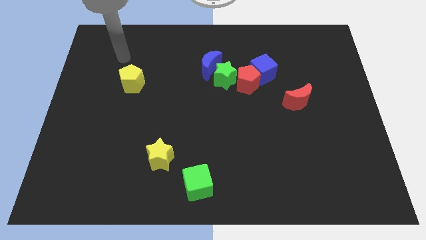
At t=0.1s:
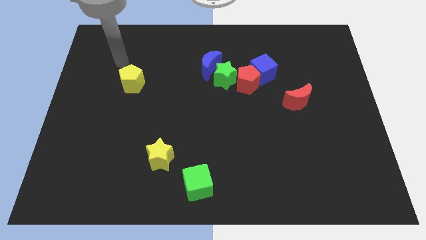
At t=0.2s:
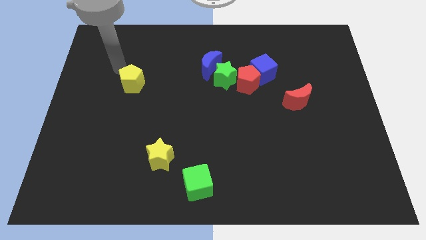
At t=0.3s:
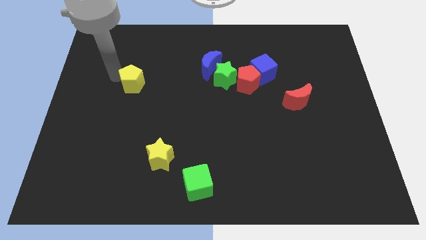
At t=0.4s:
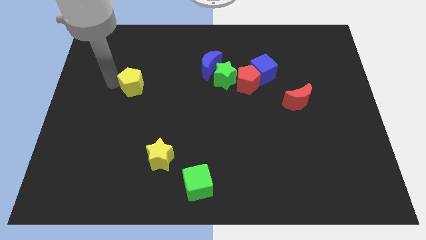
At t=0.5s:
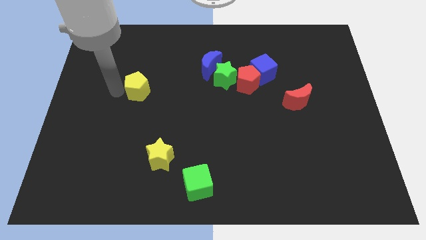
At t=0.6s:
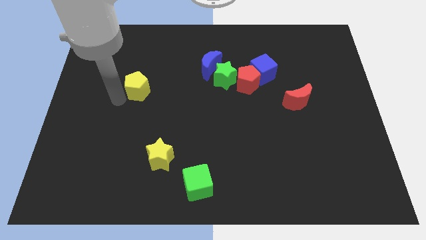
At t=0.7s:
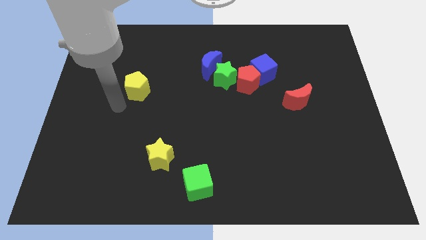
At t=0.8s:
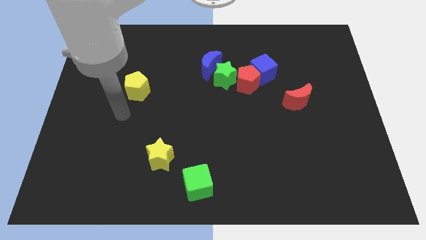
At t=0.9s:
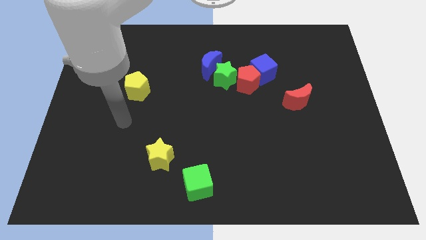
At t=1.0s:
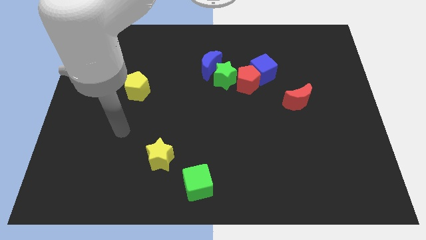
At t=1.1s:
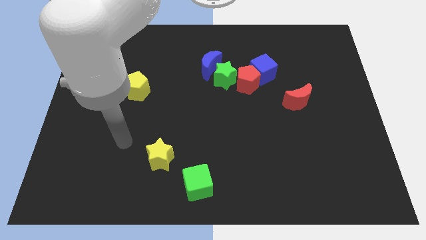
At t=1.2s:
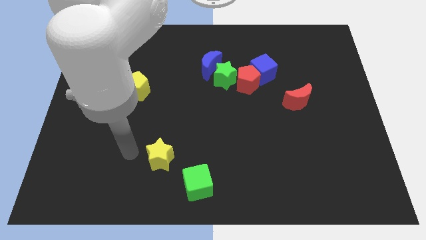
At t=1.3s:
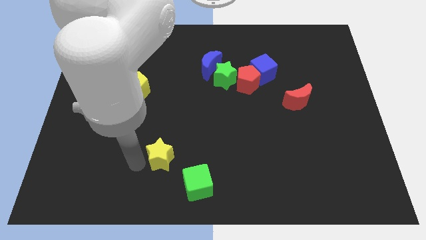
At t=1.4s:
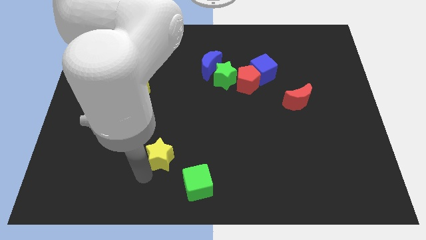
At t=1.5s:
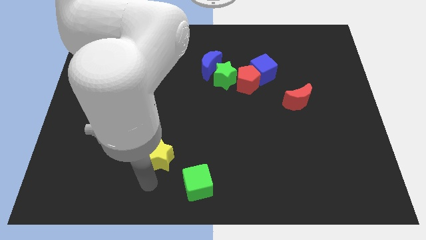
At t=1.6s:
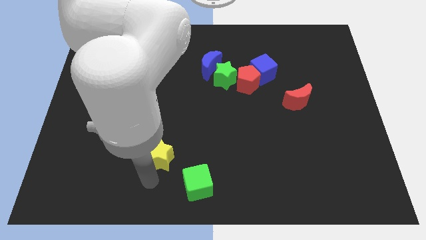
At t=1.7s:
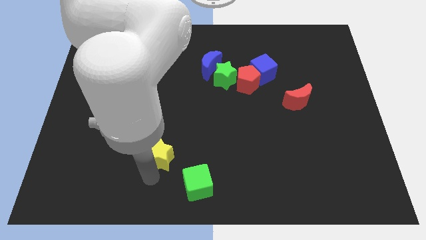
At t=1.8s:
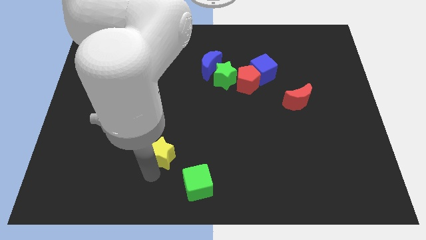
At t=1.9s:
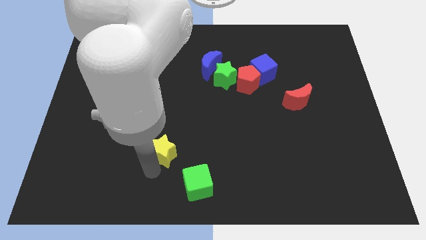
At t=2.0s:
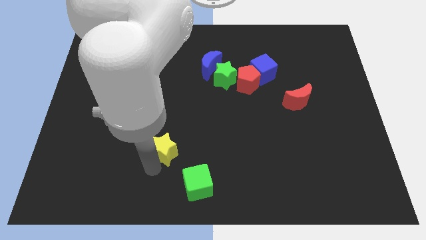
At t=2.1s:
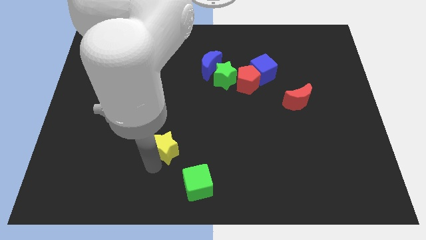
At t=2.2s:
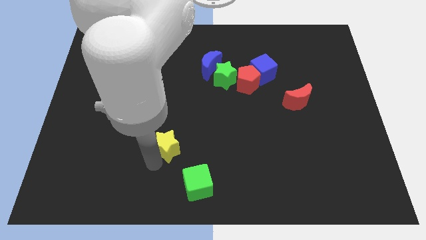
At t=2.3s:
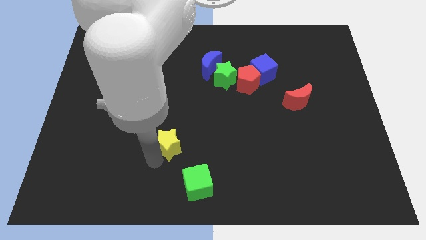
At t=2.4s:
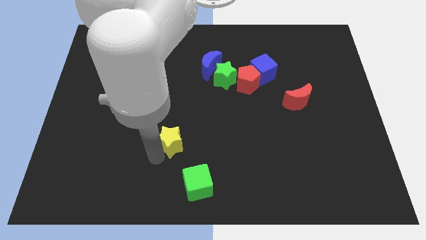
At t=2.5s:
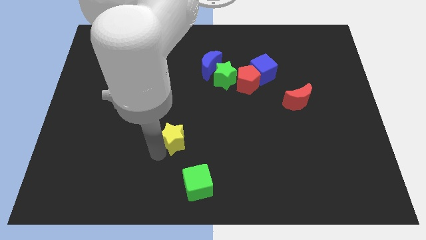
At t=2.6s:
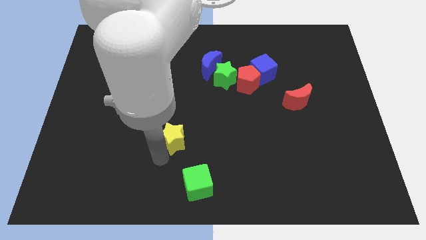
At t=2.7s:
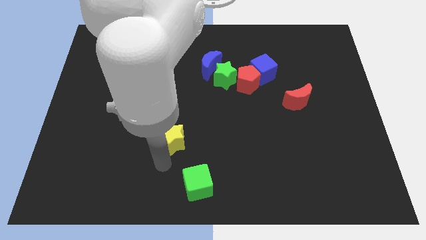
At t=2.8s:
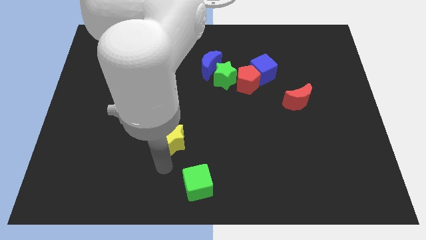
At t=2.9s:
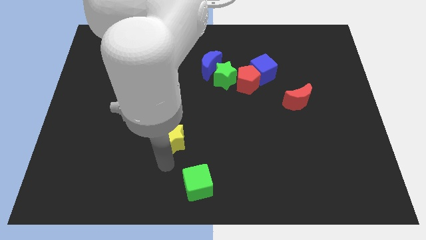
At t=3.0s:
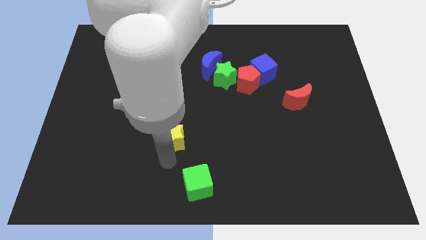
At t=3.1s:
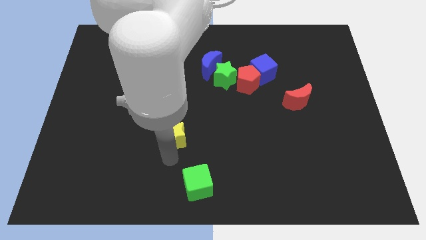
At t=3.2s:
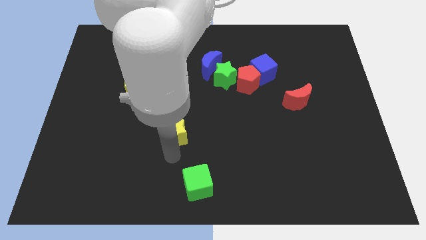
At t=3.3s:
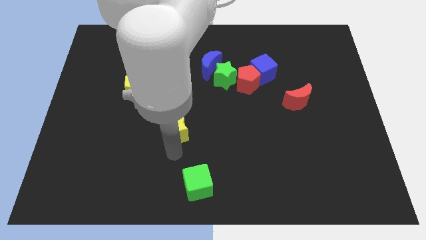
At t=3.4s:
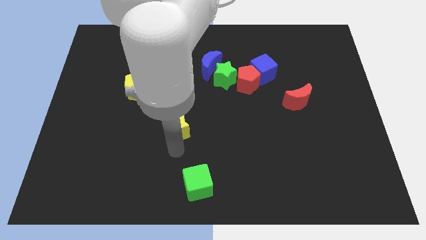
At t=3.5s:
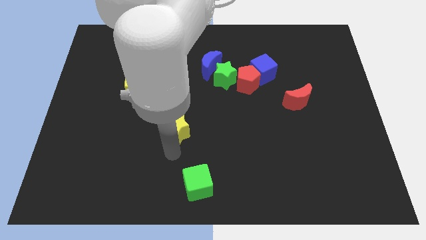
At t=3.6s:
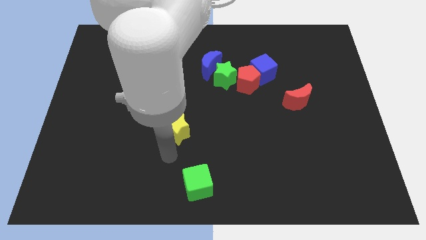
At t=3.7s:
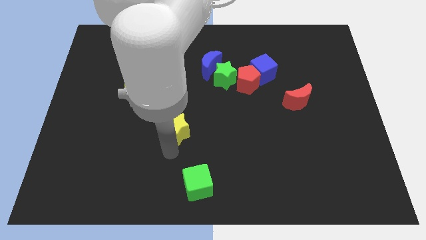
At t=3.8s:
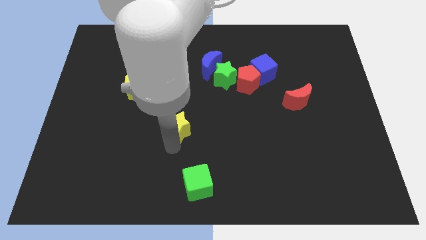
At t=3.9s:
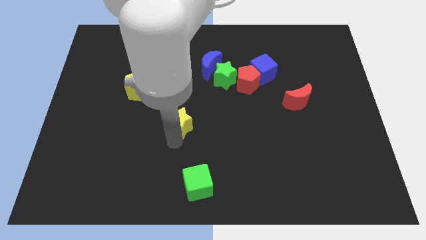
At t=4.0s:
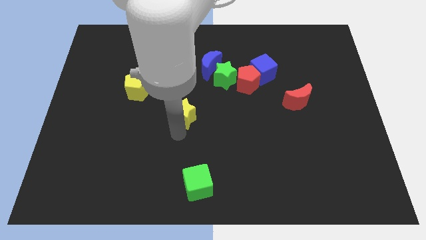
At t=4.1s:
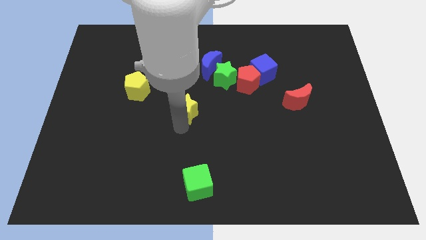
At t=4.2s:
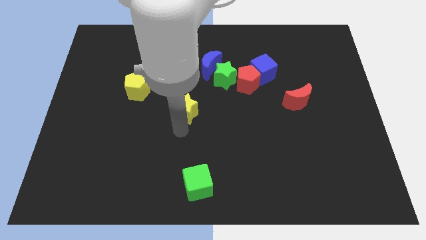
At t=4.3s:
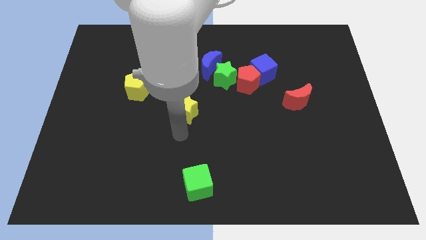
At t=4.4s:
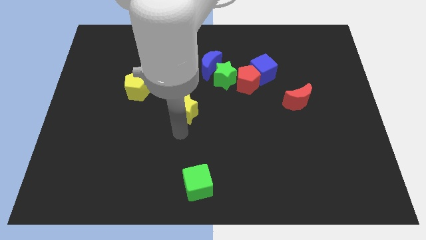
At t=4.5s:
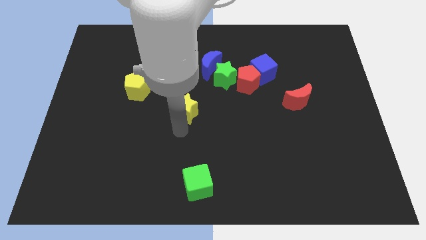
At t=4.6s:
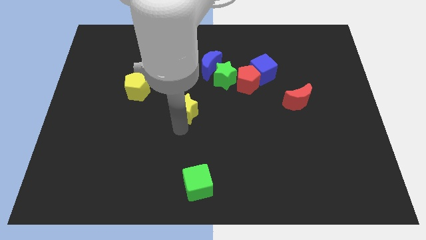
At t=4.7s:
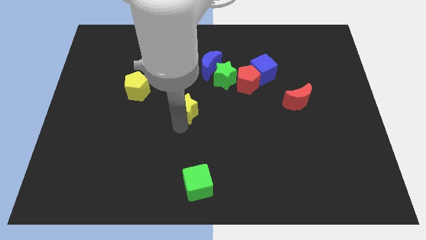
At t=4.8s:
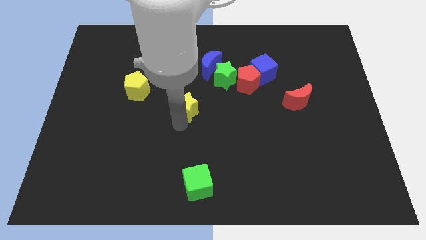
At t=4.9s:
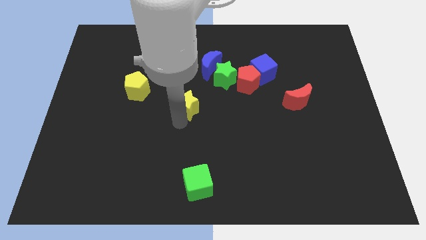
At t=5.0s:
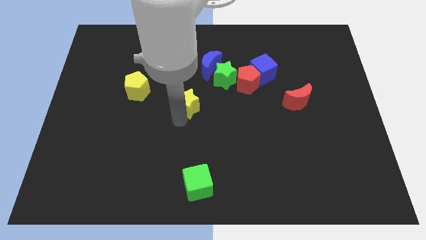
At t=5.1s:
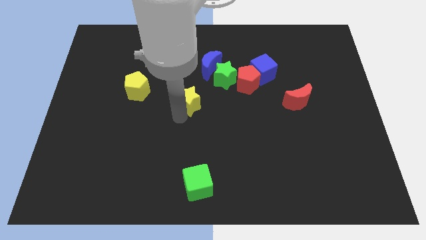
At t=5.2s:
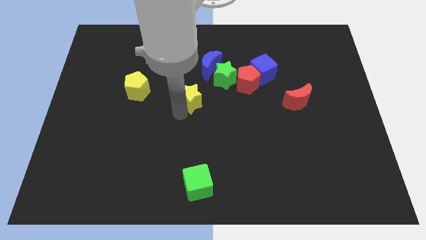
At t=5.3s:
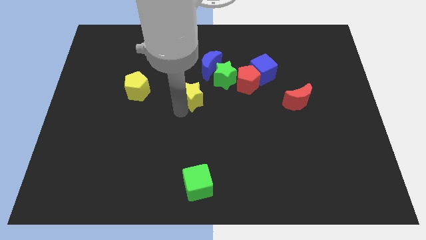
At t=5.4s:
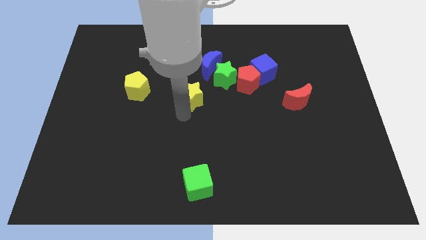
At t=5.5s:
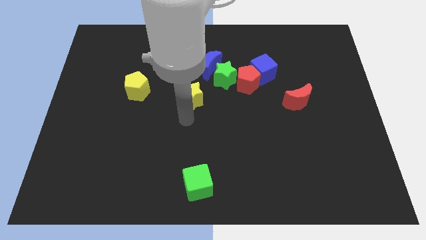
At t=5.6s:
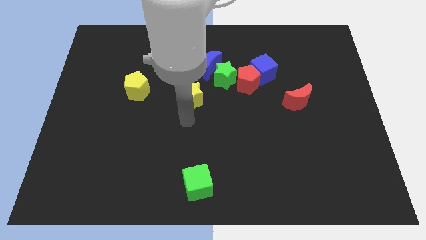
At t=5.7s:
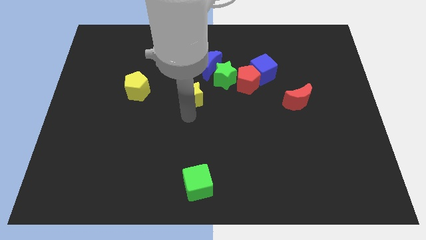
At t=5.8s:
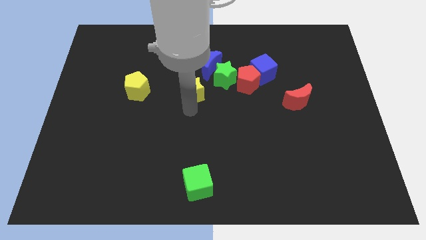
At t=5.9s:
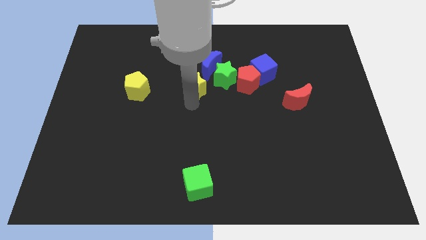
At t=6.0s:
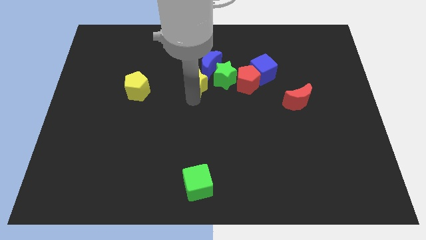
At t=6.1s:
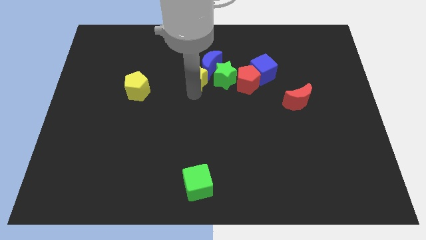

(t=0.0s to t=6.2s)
move the yellow star next to the blue moon
